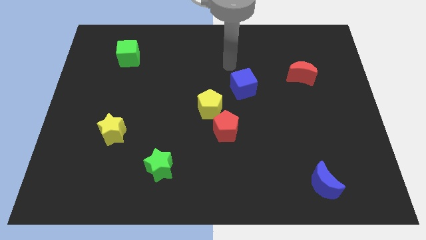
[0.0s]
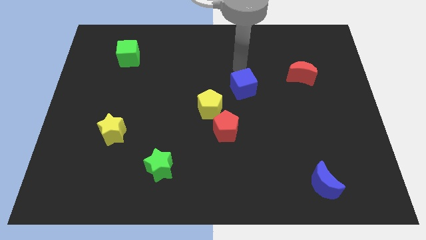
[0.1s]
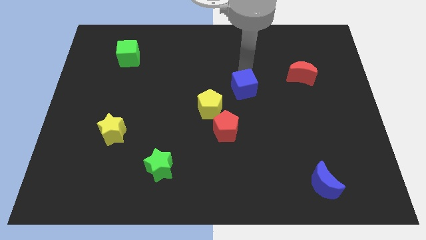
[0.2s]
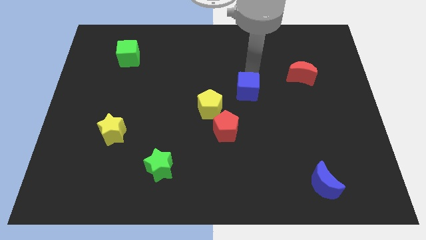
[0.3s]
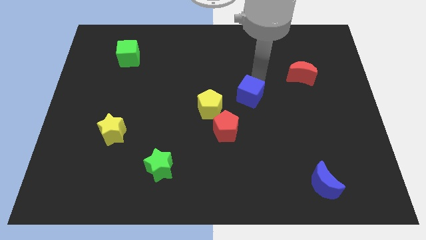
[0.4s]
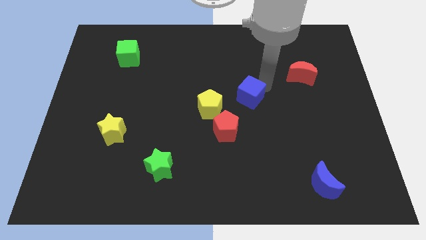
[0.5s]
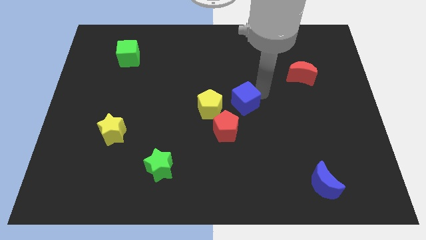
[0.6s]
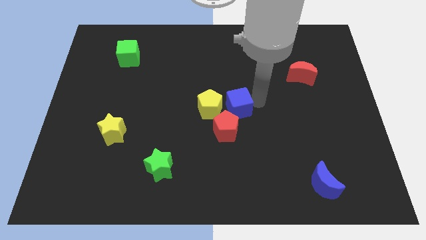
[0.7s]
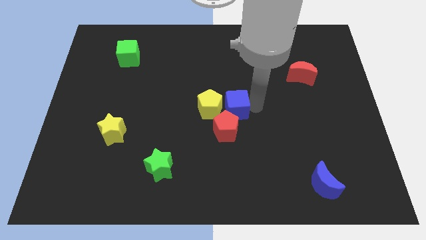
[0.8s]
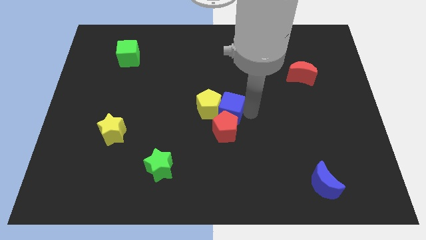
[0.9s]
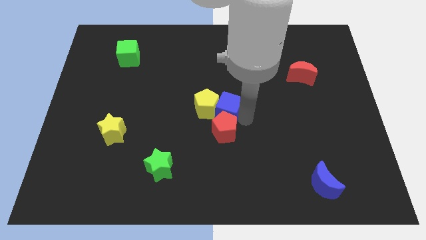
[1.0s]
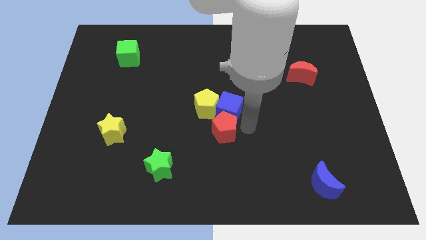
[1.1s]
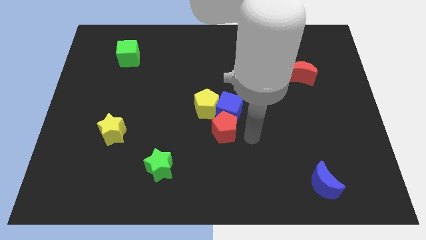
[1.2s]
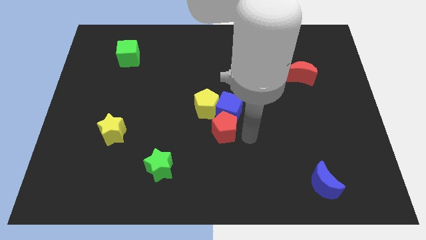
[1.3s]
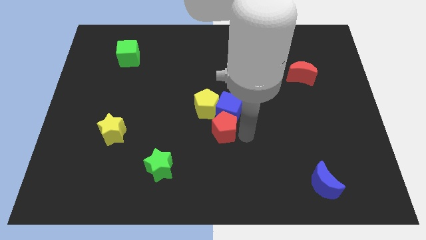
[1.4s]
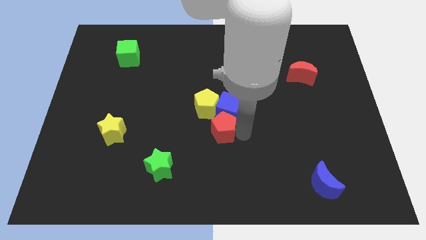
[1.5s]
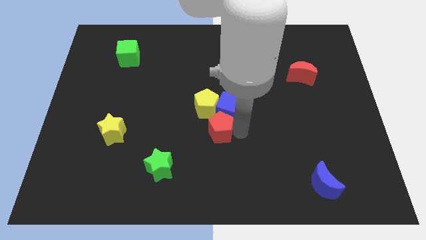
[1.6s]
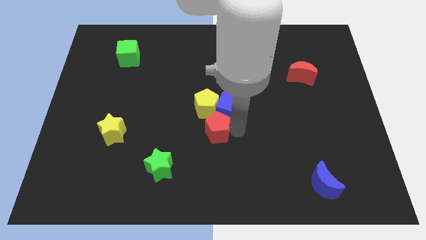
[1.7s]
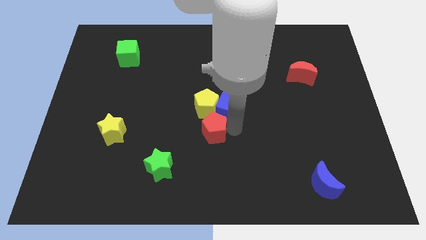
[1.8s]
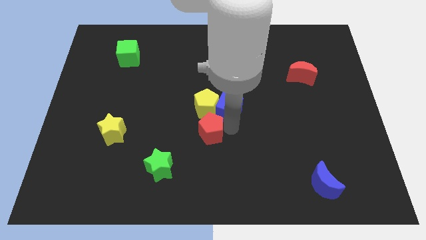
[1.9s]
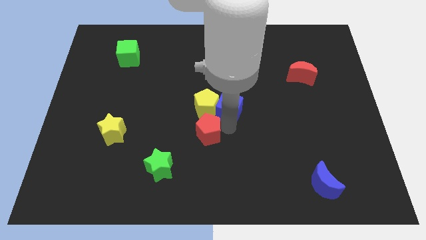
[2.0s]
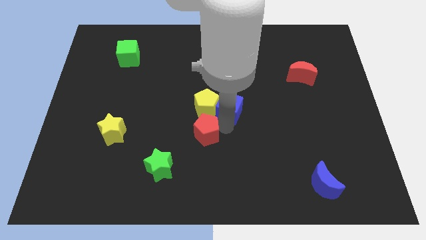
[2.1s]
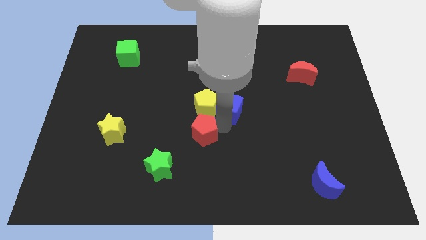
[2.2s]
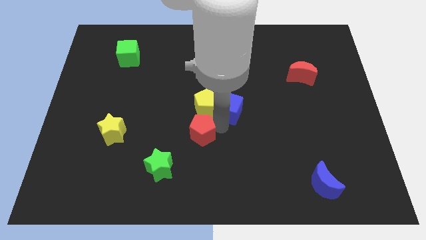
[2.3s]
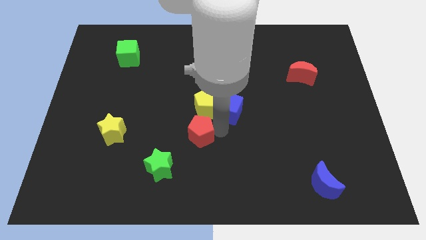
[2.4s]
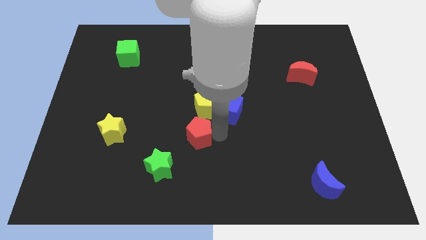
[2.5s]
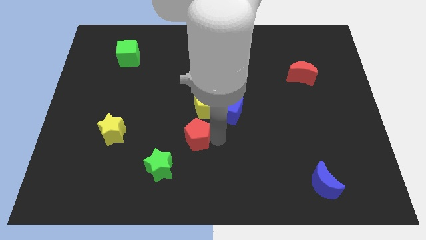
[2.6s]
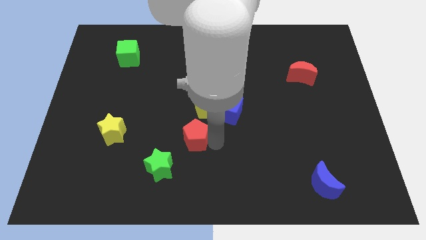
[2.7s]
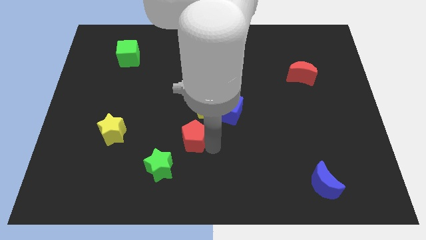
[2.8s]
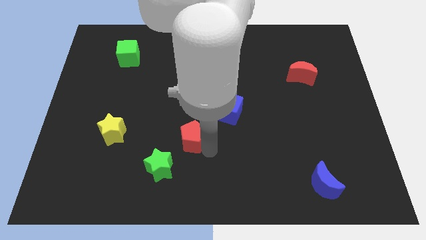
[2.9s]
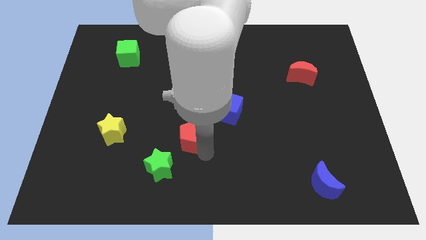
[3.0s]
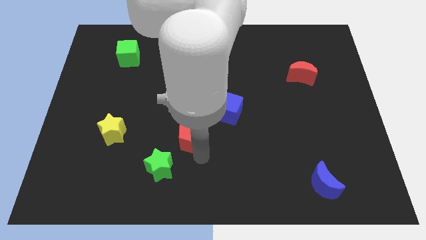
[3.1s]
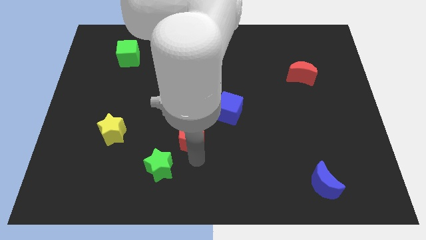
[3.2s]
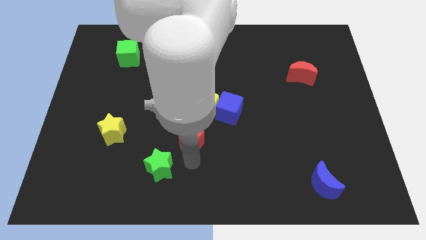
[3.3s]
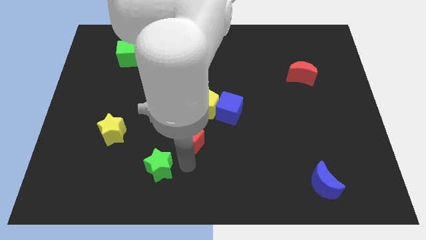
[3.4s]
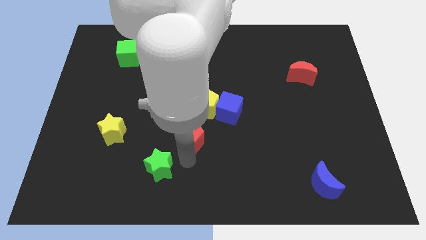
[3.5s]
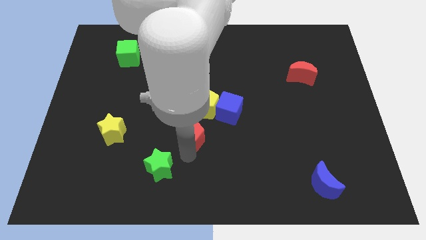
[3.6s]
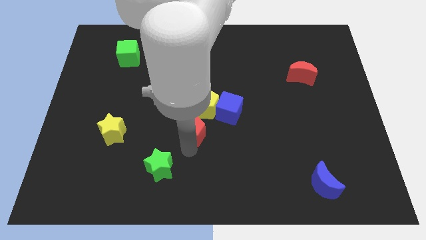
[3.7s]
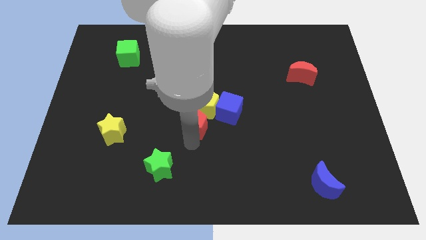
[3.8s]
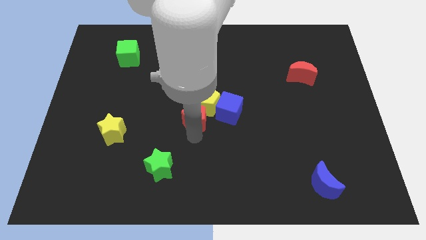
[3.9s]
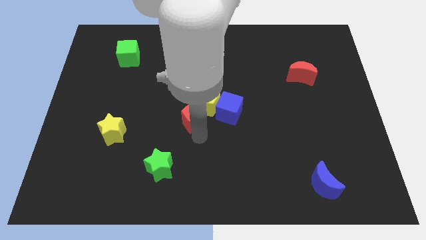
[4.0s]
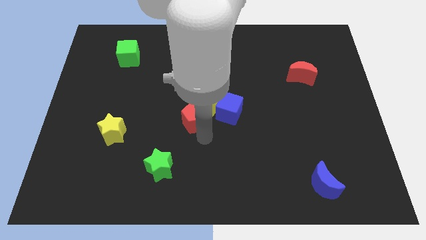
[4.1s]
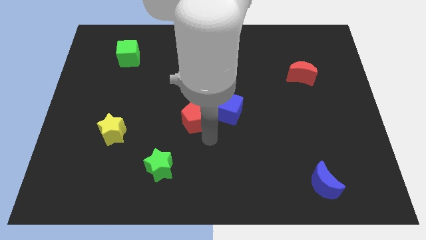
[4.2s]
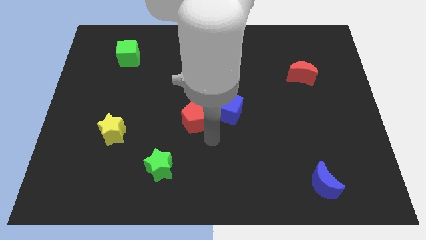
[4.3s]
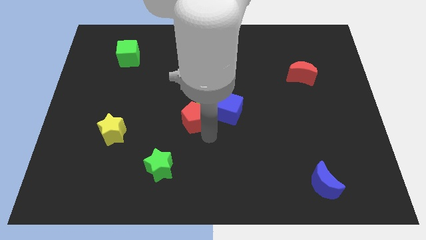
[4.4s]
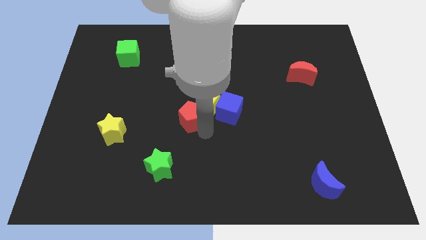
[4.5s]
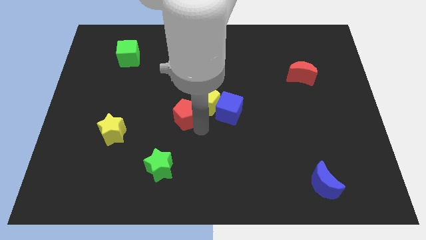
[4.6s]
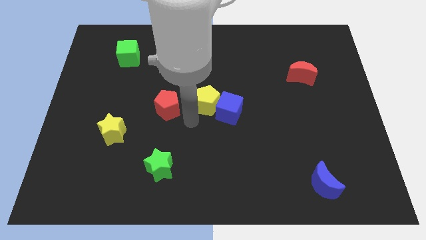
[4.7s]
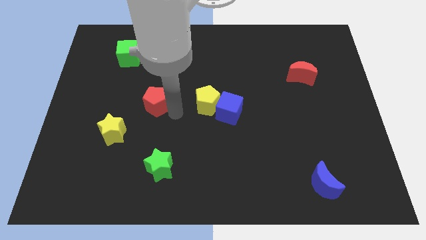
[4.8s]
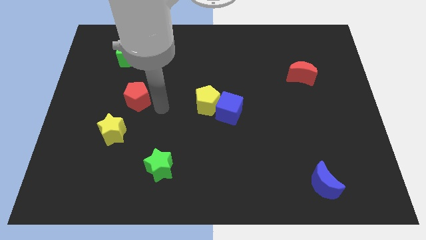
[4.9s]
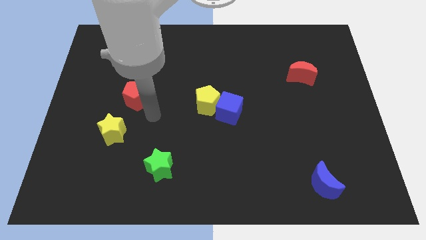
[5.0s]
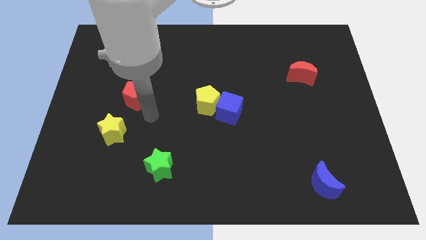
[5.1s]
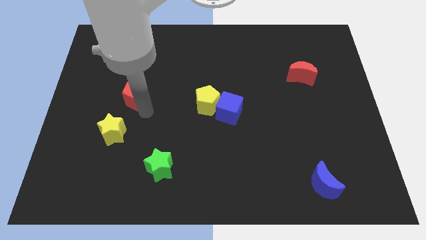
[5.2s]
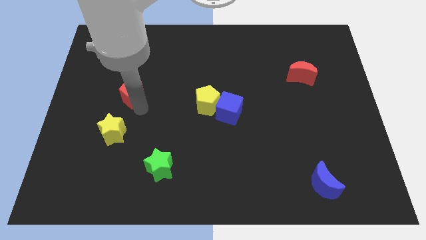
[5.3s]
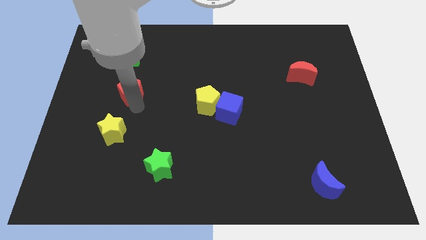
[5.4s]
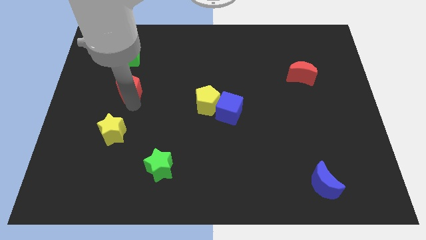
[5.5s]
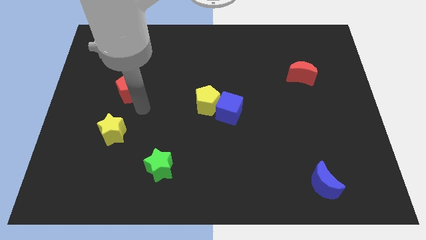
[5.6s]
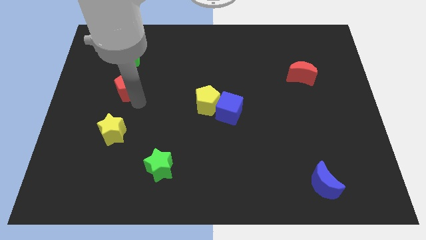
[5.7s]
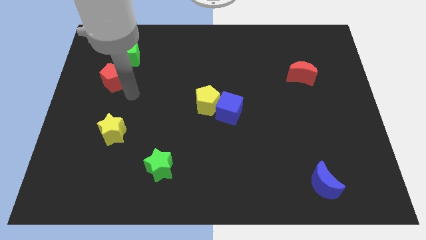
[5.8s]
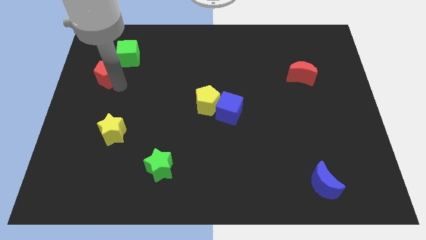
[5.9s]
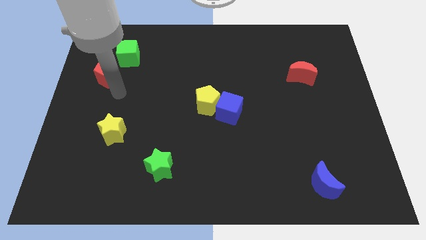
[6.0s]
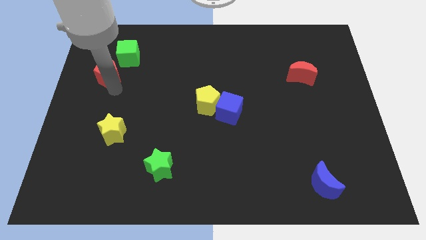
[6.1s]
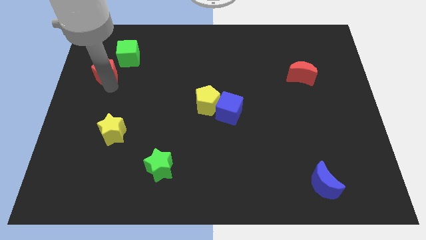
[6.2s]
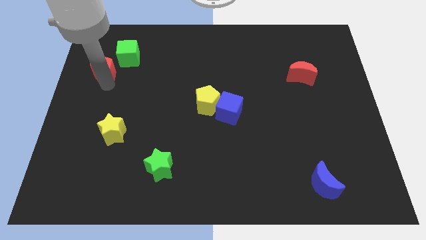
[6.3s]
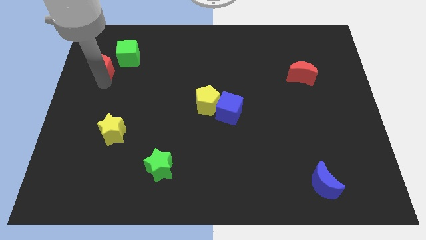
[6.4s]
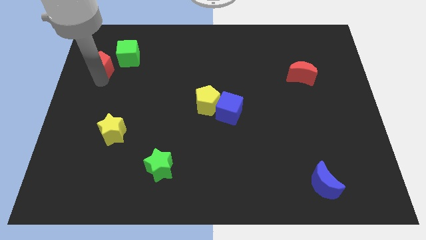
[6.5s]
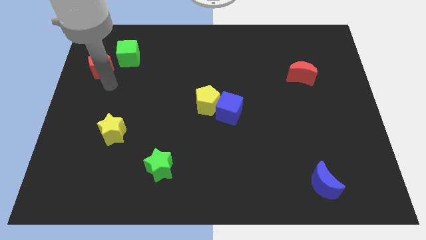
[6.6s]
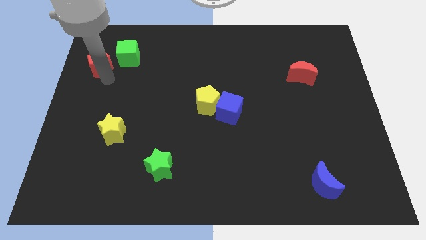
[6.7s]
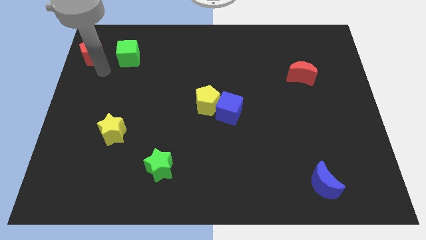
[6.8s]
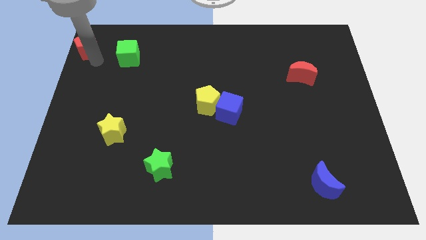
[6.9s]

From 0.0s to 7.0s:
push the red pentagon to the top left

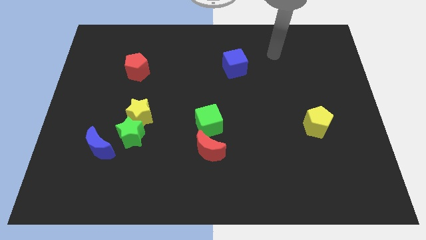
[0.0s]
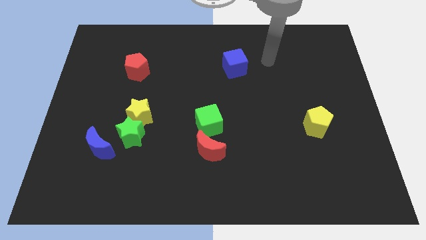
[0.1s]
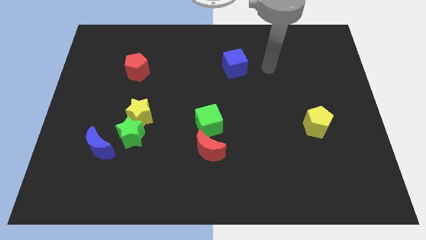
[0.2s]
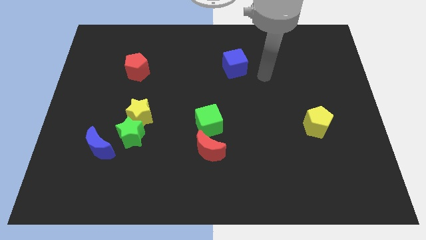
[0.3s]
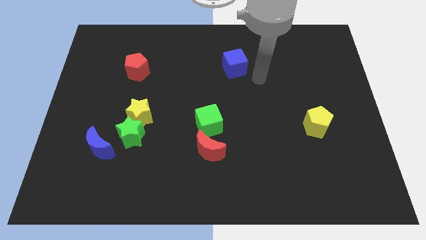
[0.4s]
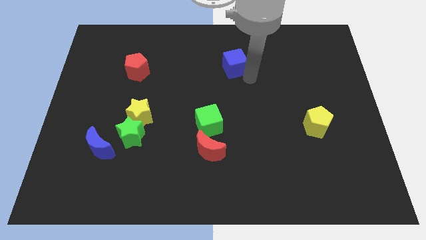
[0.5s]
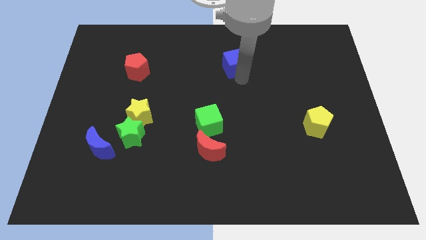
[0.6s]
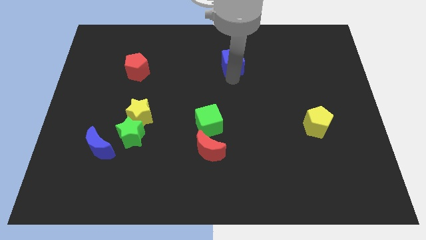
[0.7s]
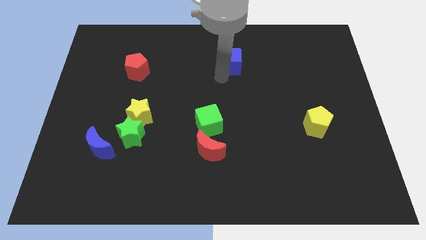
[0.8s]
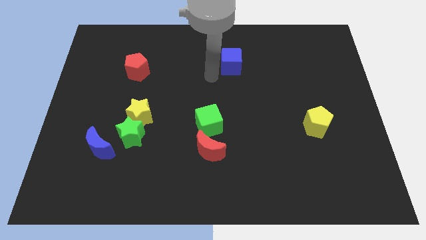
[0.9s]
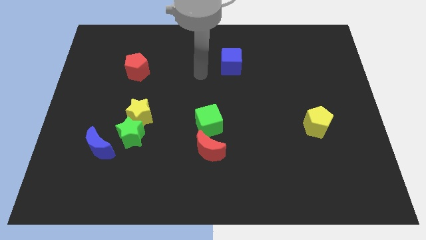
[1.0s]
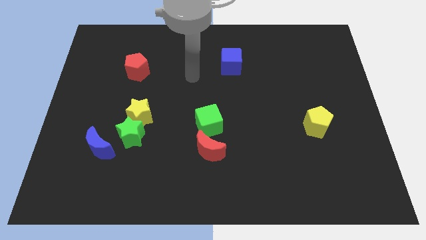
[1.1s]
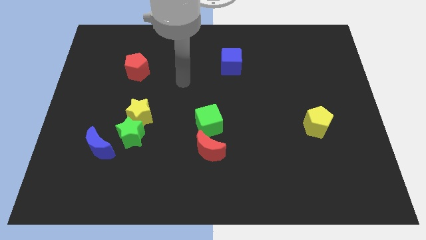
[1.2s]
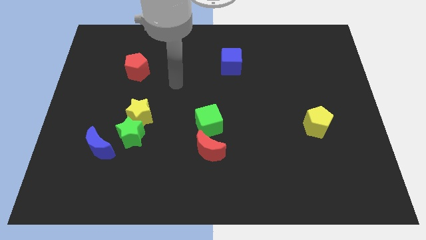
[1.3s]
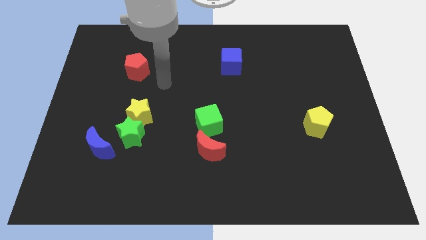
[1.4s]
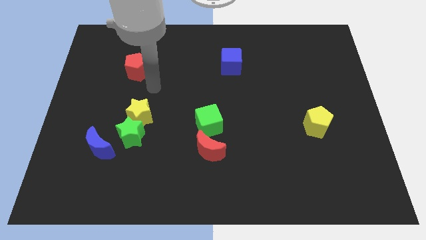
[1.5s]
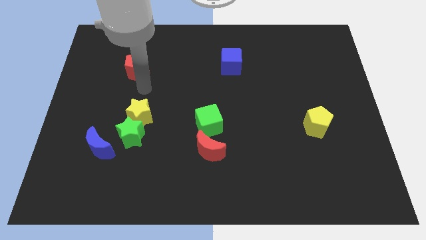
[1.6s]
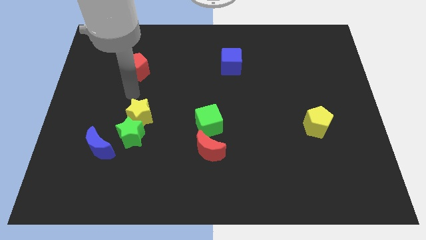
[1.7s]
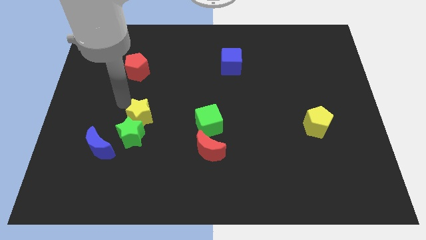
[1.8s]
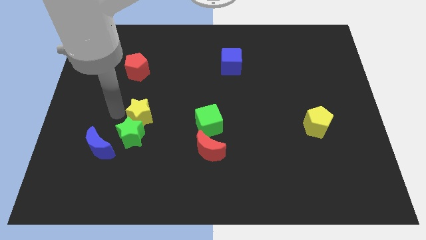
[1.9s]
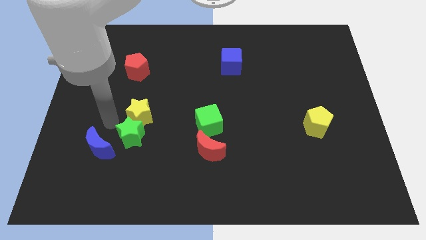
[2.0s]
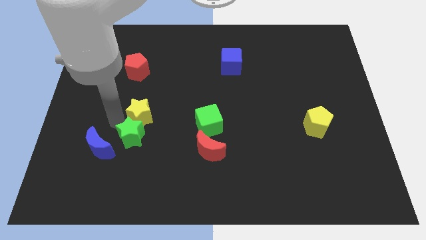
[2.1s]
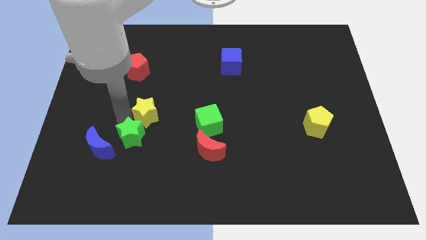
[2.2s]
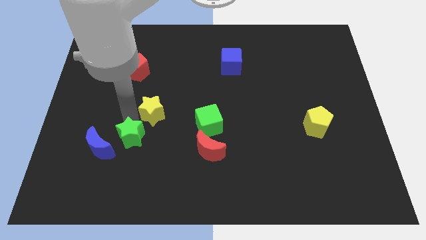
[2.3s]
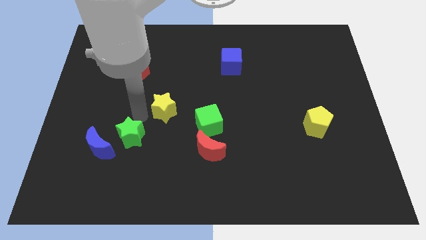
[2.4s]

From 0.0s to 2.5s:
move the yellow star to the center of the board
